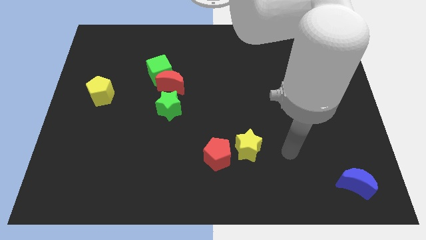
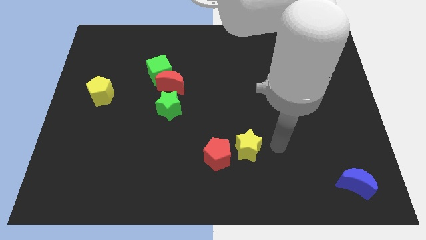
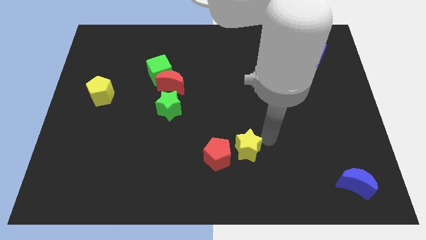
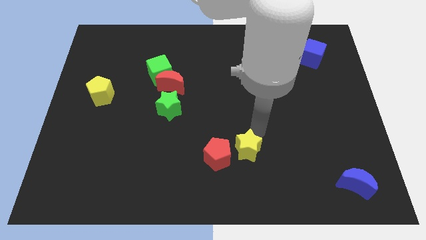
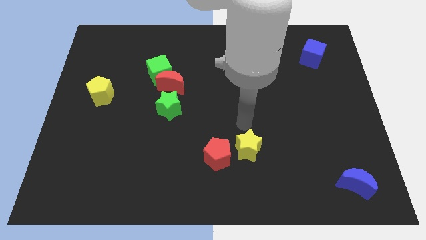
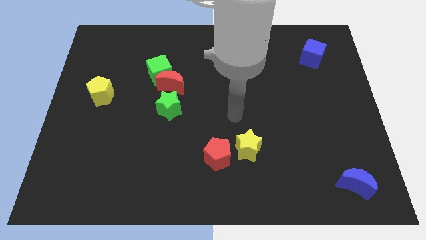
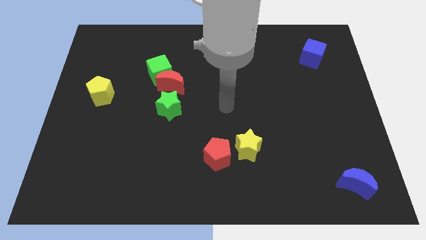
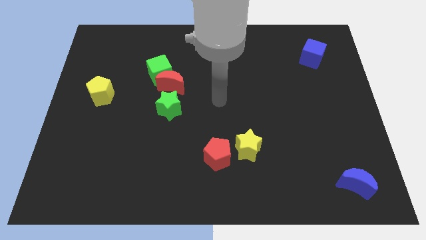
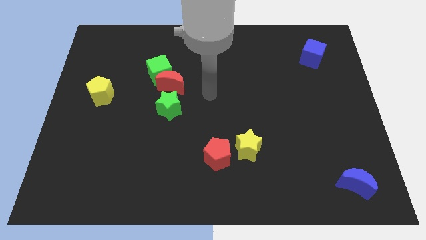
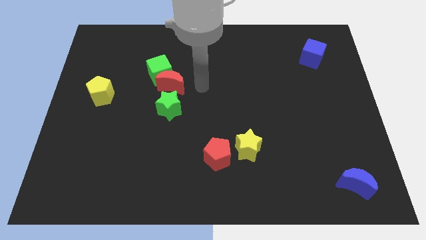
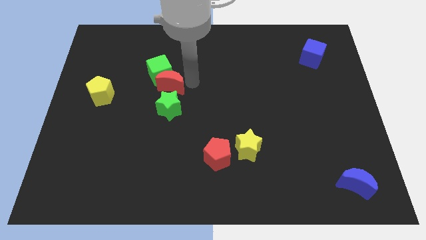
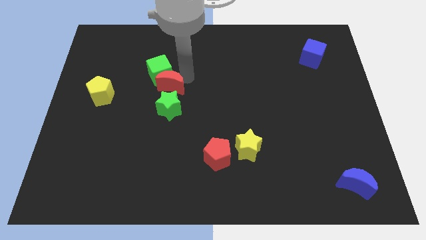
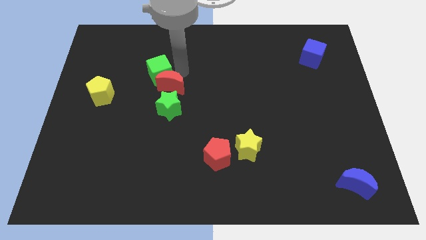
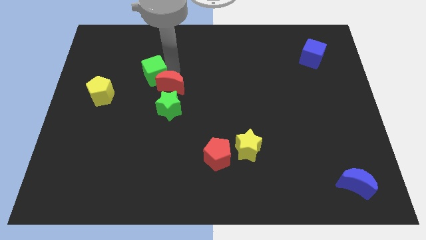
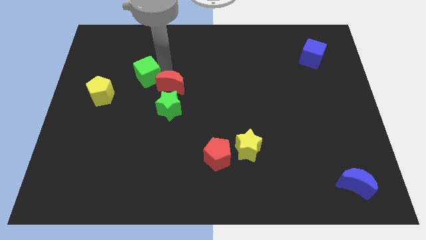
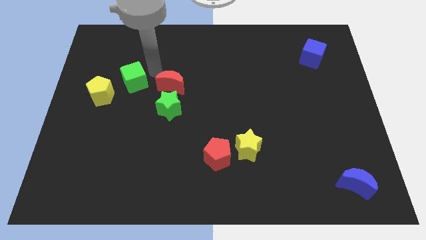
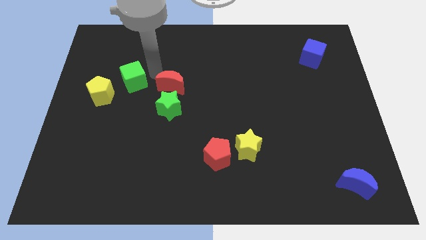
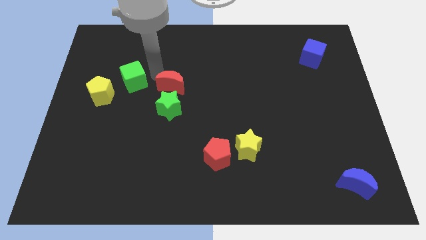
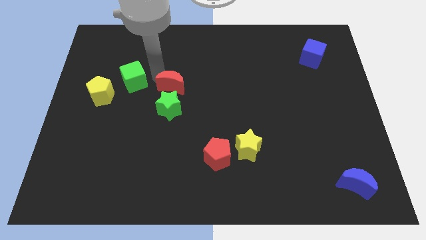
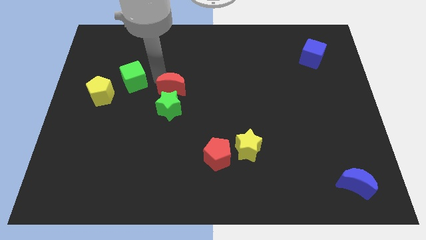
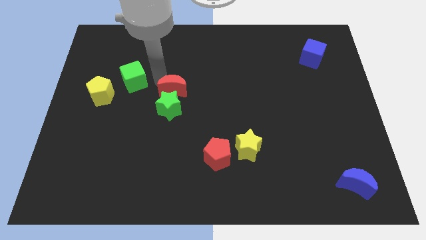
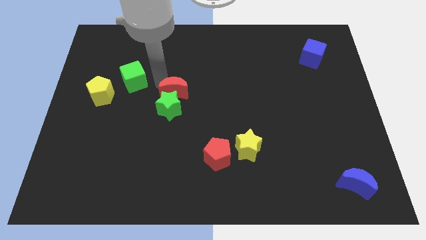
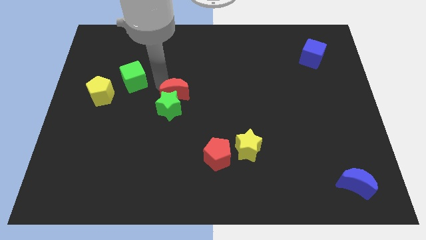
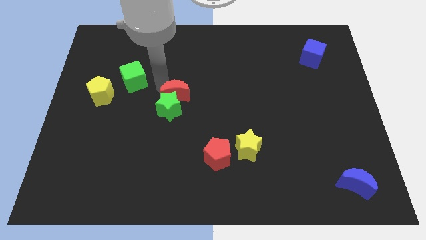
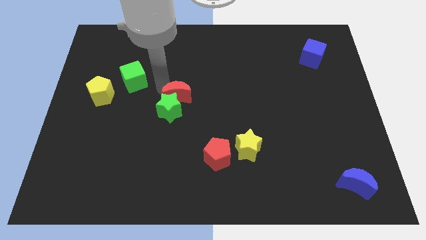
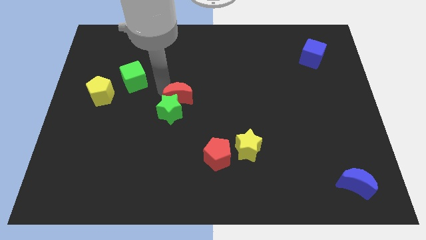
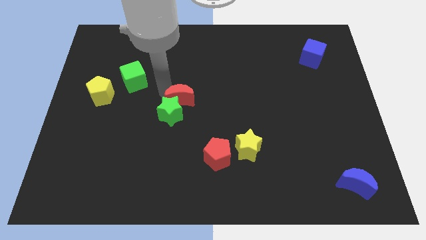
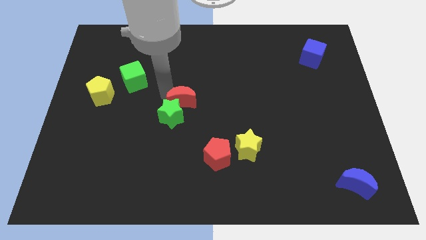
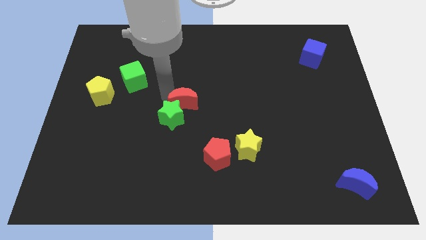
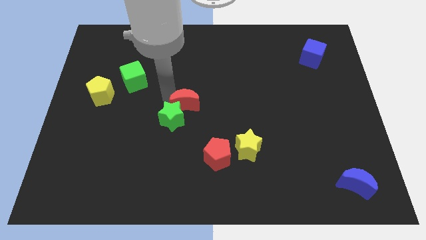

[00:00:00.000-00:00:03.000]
push the red moon a bit down and to the right diagonally

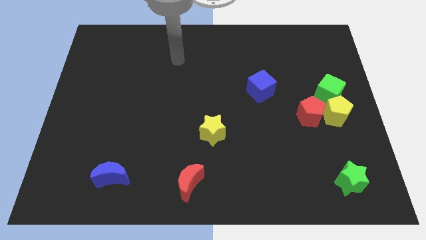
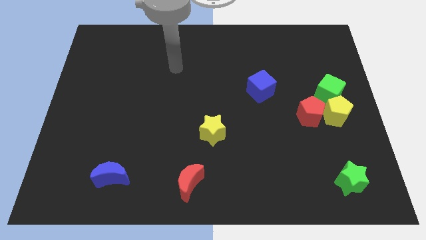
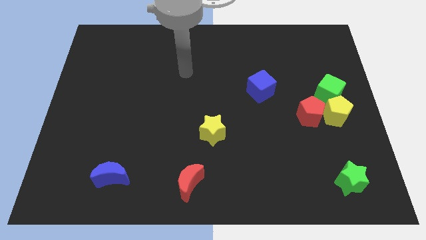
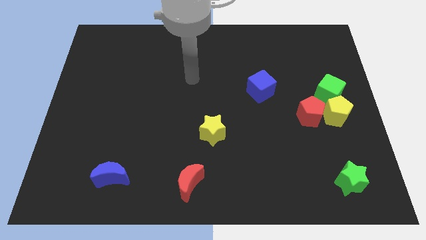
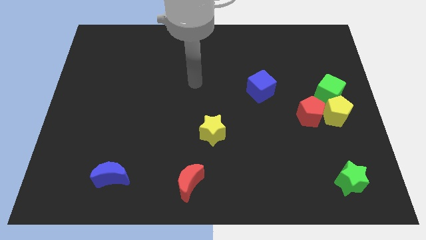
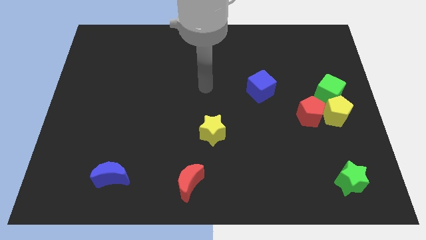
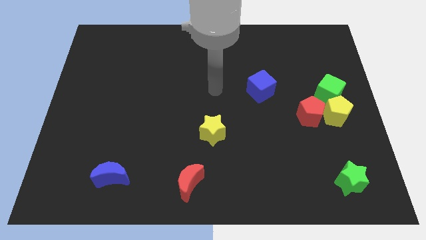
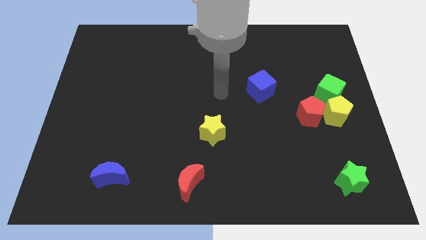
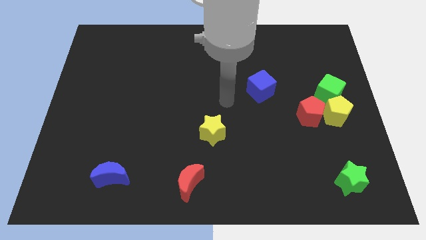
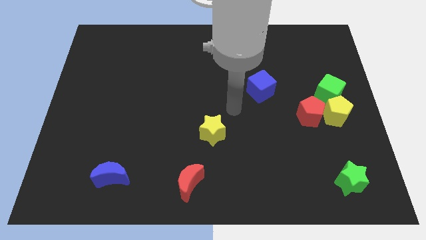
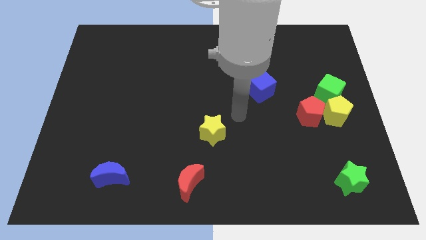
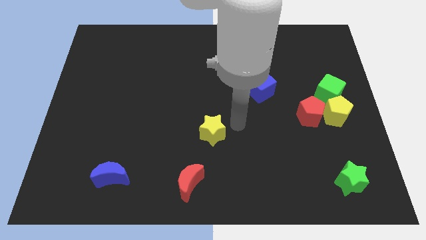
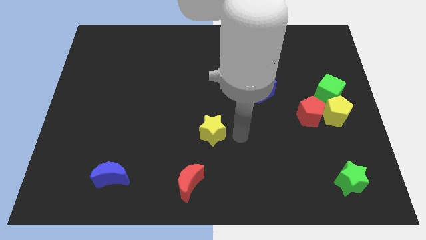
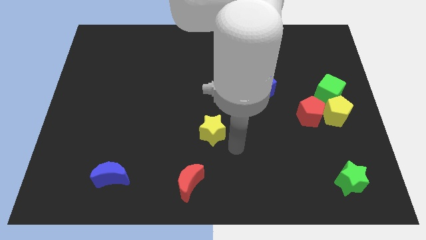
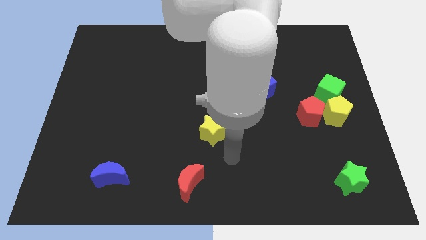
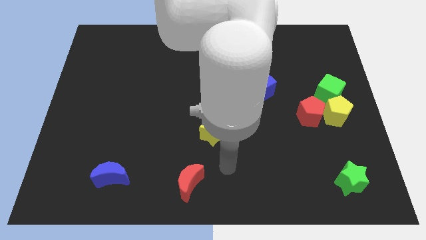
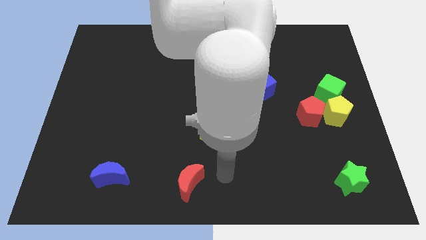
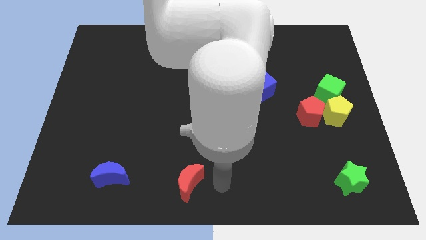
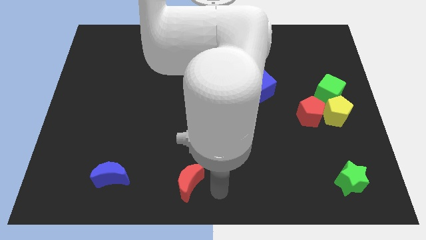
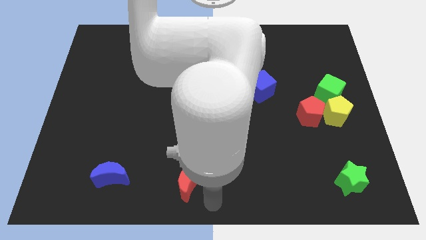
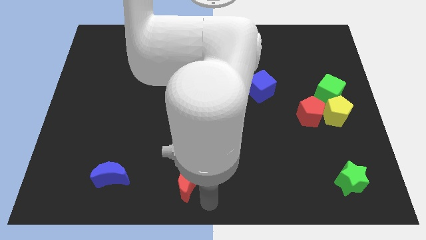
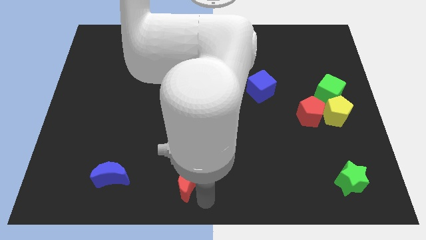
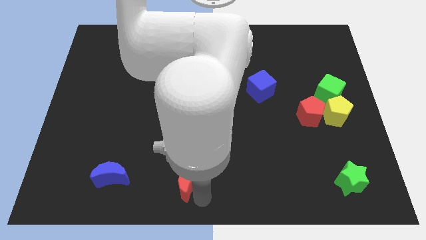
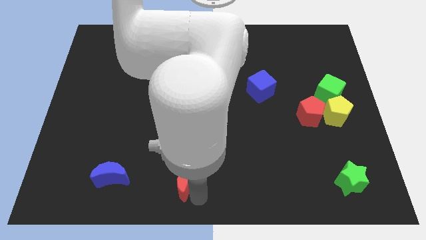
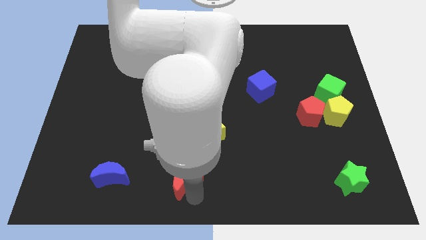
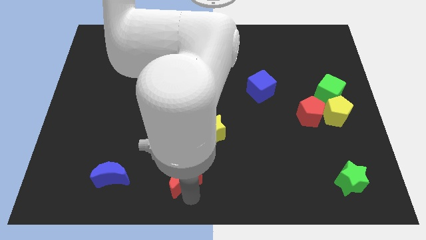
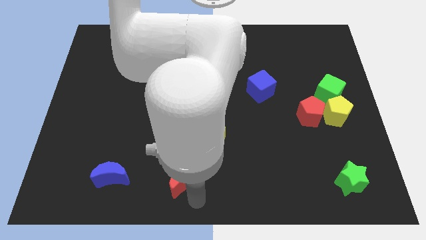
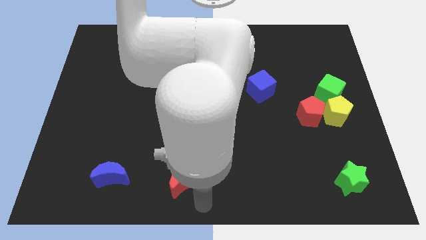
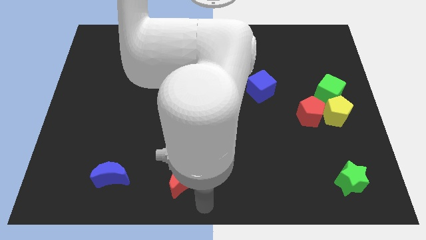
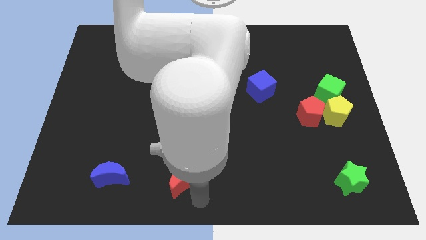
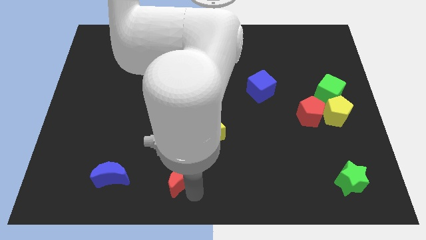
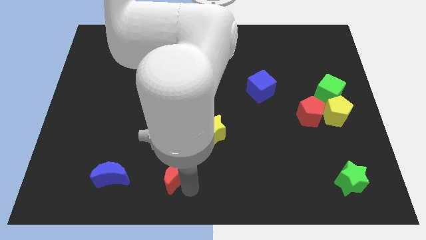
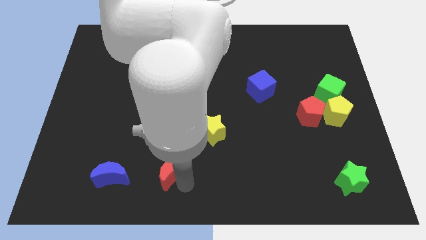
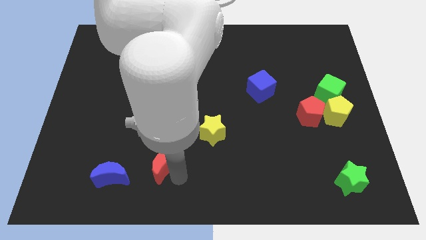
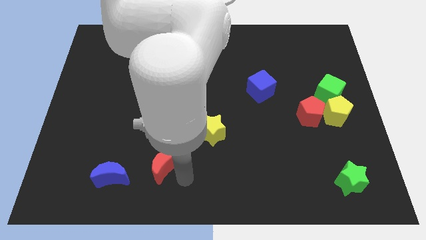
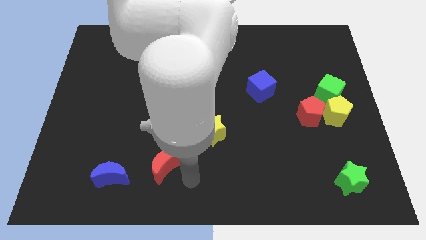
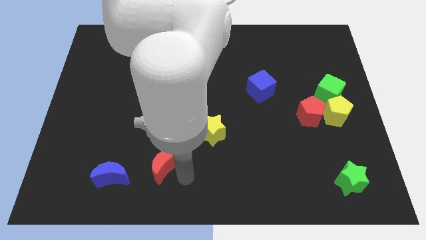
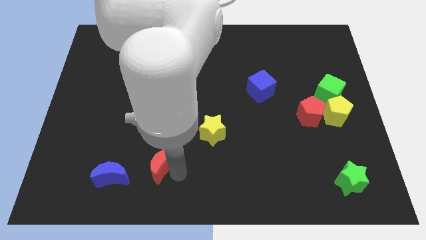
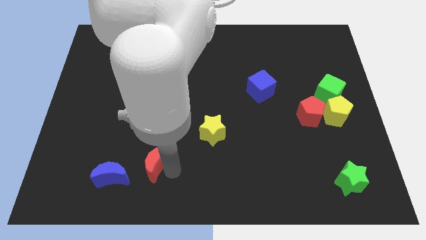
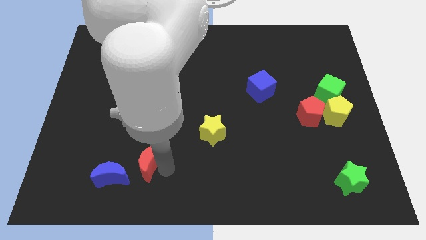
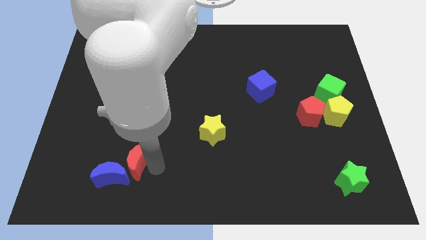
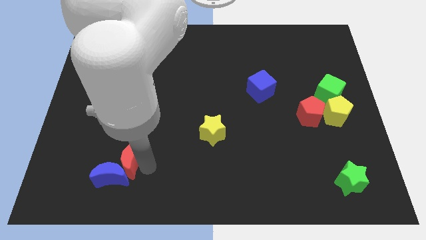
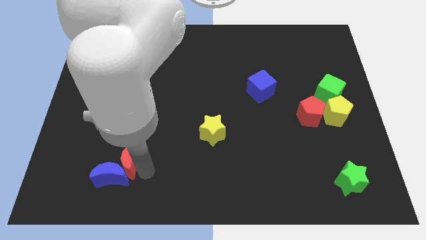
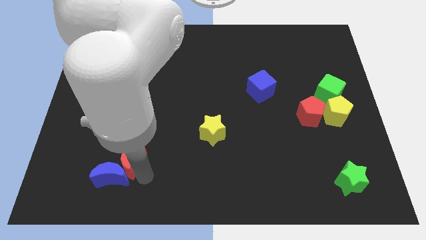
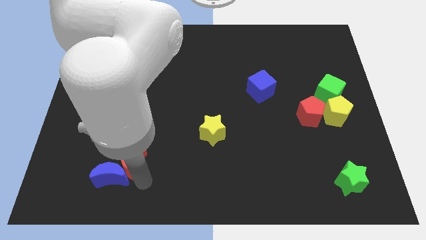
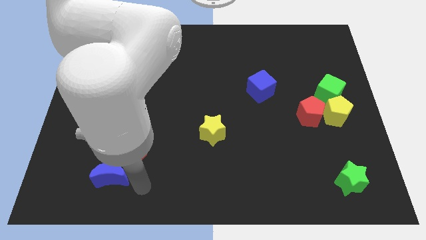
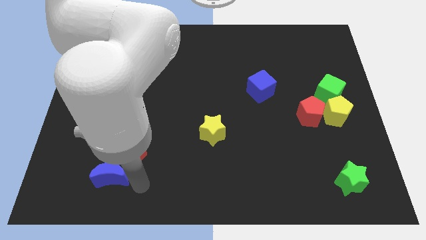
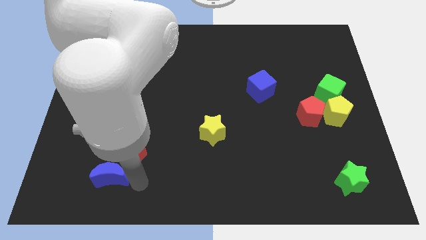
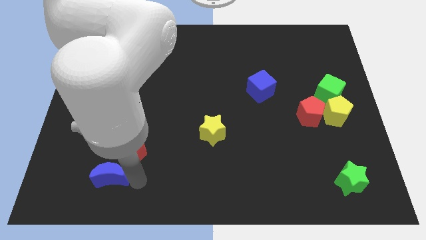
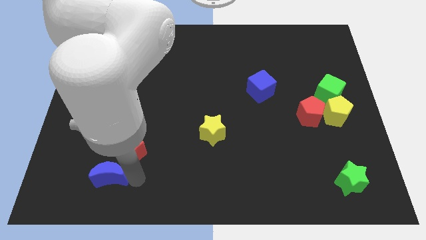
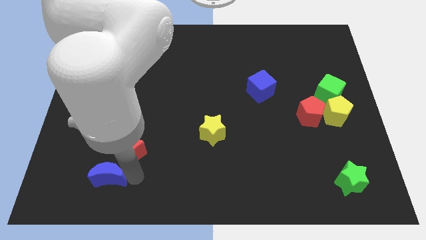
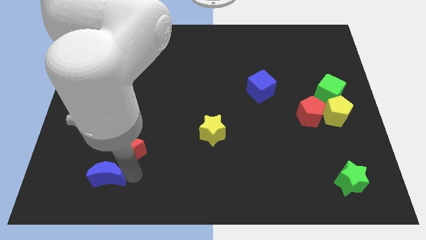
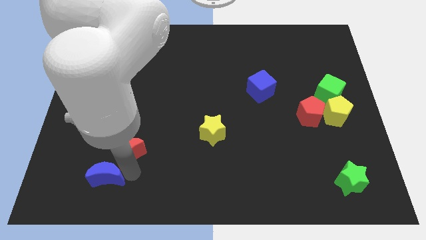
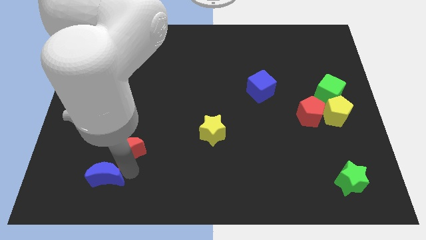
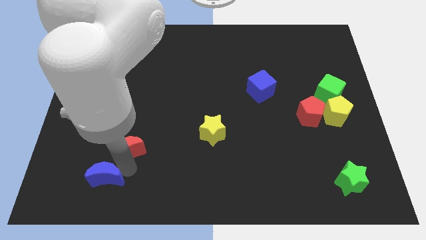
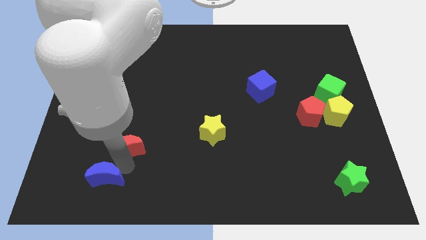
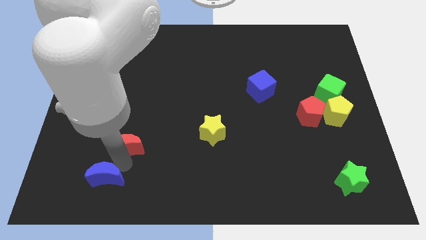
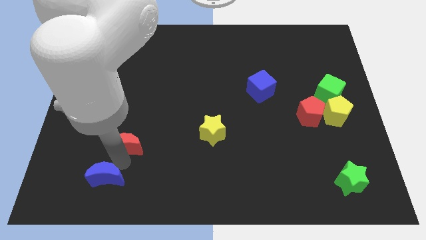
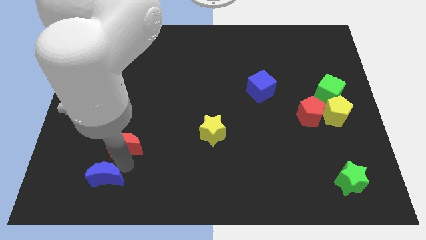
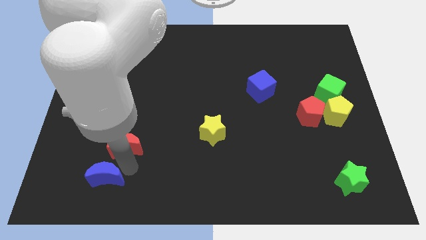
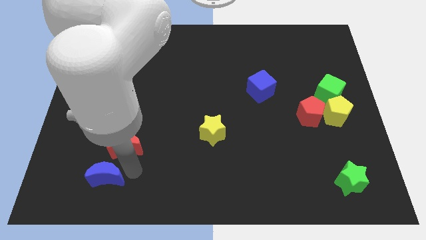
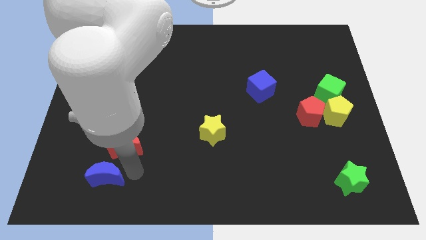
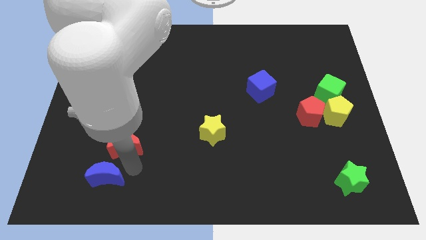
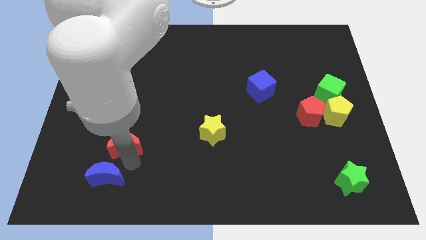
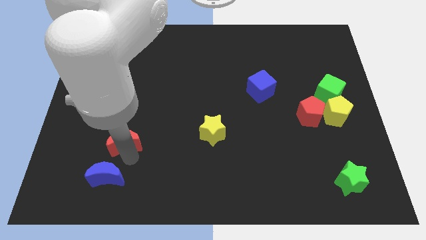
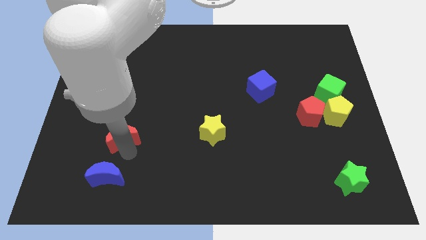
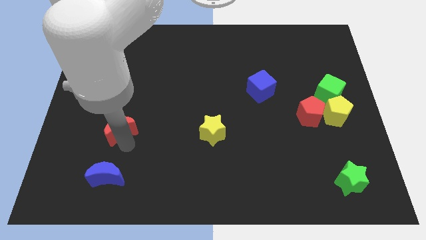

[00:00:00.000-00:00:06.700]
slide the red moon up and to the left
